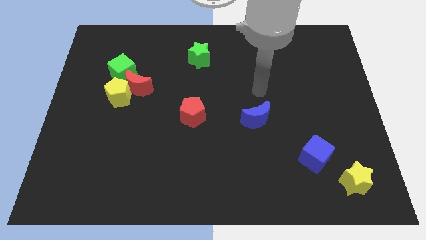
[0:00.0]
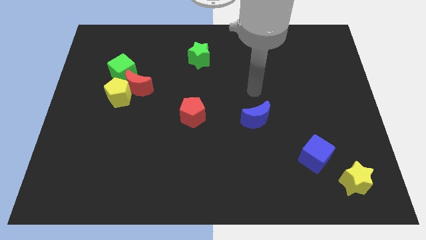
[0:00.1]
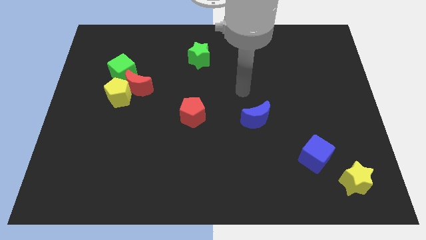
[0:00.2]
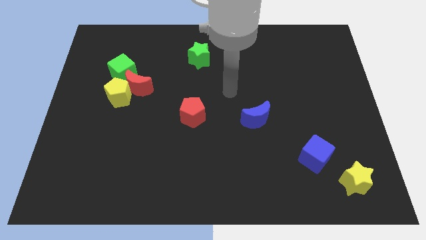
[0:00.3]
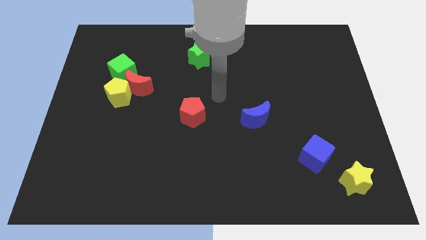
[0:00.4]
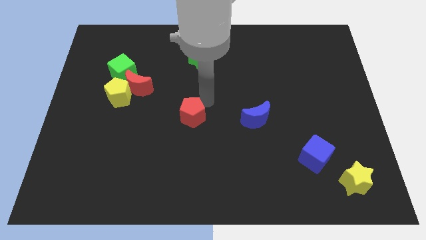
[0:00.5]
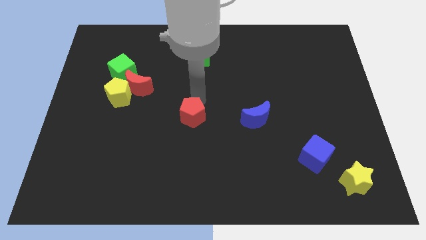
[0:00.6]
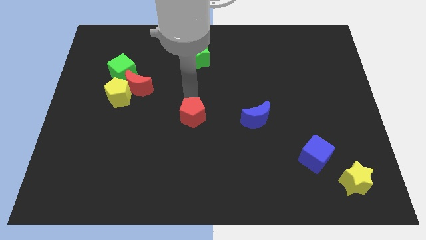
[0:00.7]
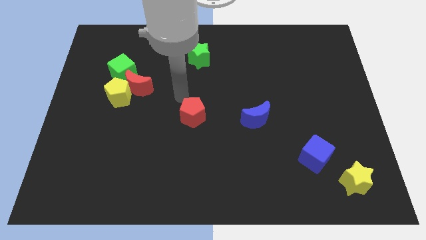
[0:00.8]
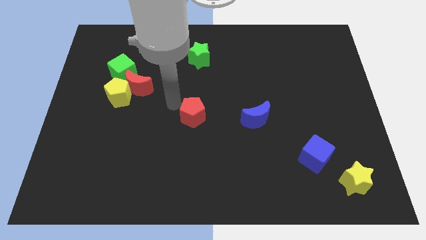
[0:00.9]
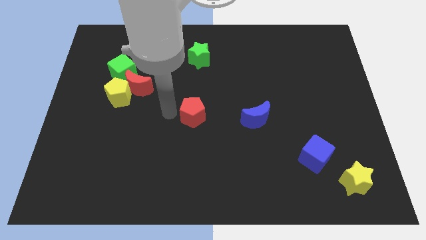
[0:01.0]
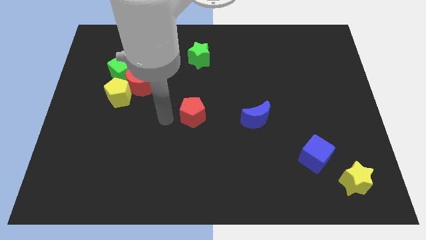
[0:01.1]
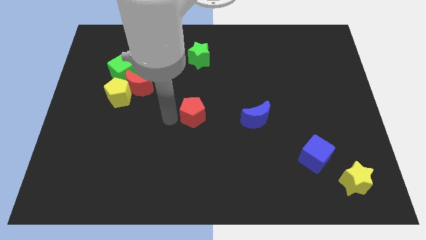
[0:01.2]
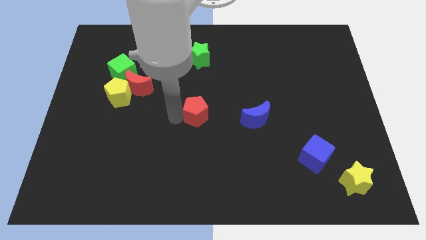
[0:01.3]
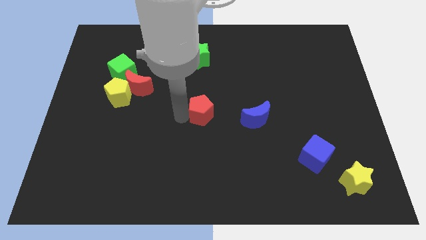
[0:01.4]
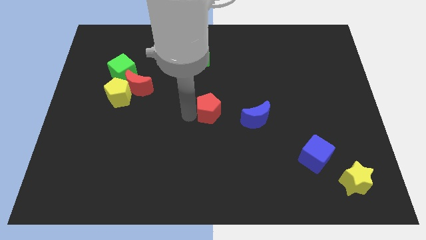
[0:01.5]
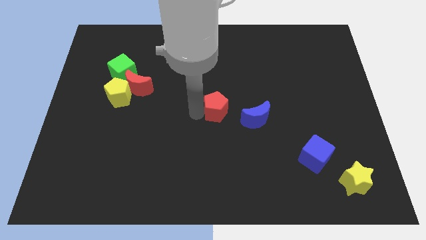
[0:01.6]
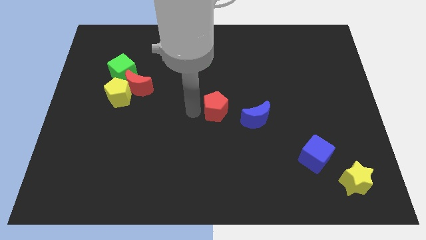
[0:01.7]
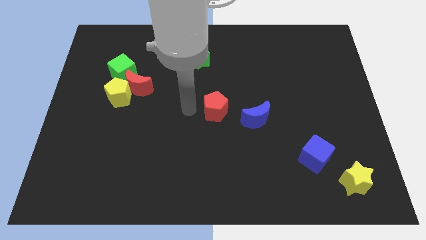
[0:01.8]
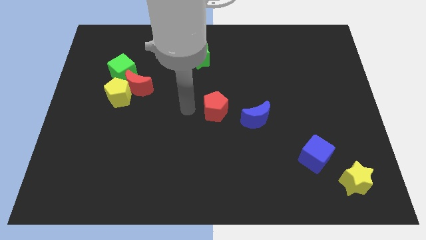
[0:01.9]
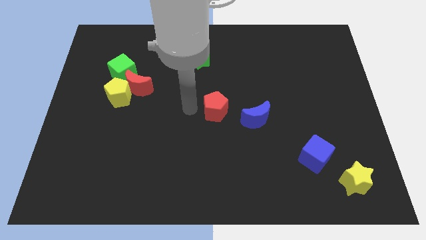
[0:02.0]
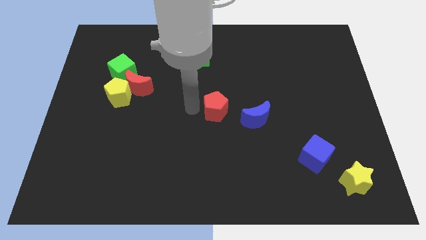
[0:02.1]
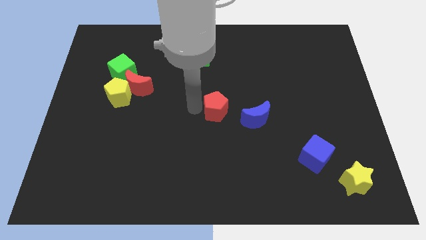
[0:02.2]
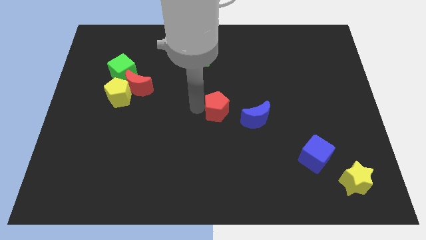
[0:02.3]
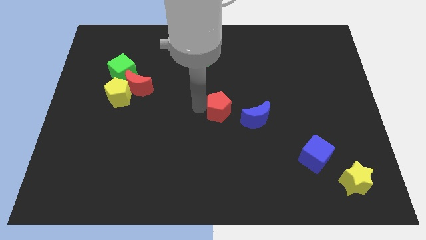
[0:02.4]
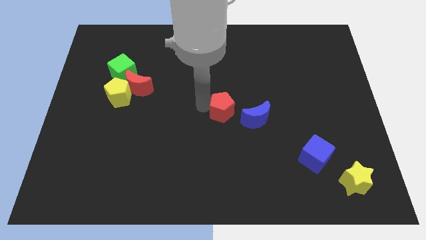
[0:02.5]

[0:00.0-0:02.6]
move the red pentagon a bit right

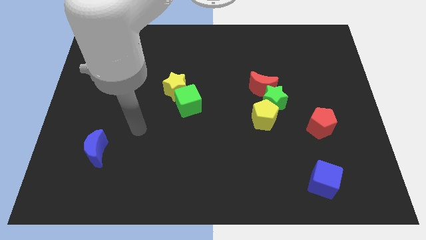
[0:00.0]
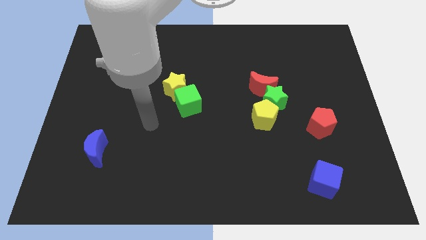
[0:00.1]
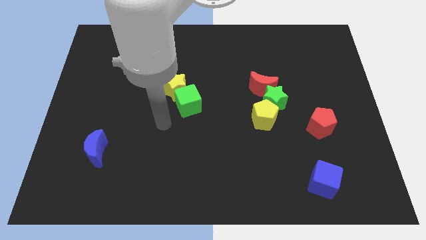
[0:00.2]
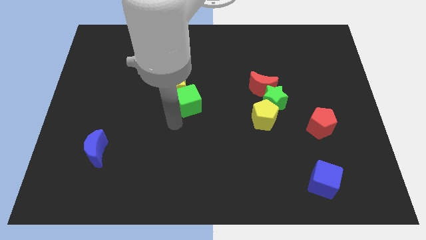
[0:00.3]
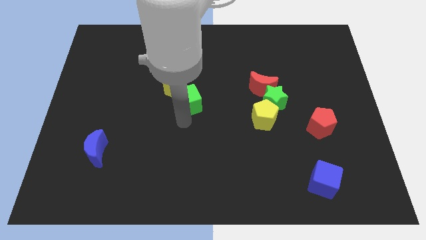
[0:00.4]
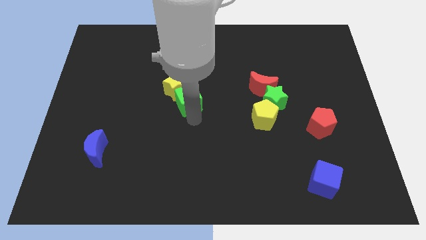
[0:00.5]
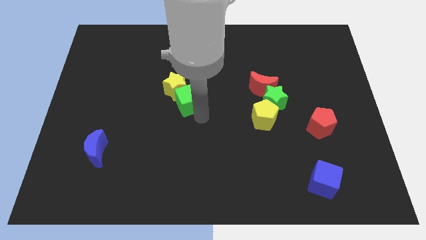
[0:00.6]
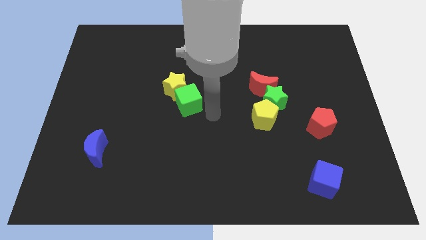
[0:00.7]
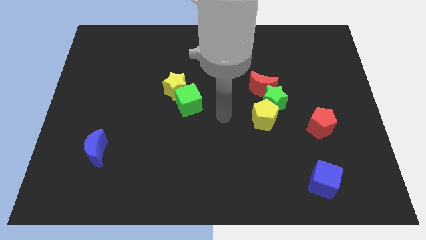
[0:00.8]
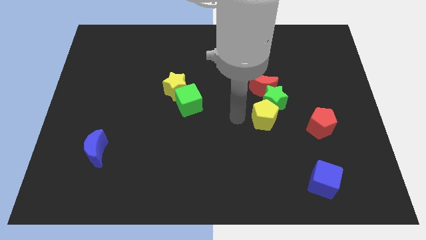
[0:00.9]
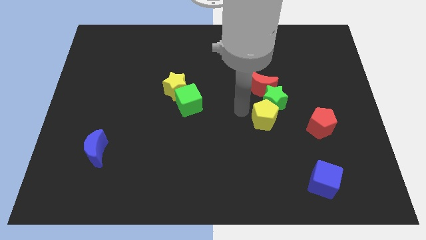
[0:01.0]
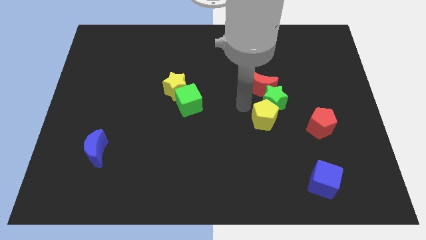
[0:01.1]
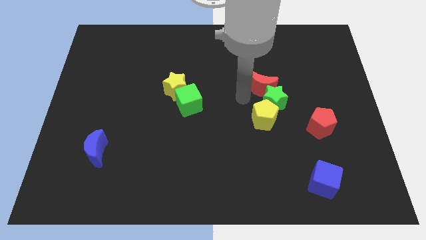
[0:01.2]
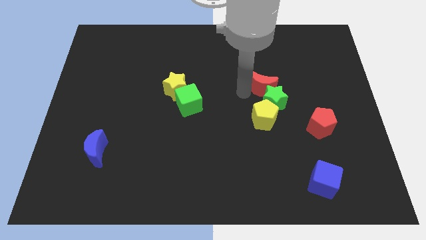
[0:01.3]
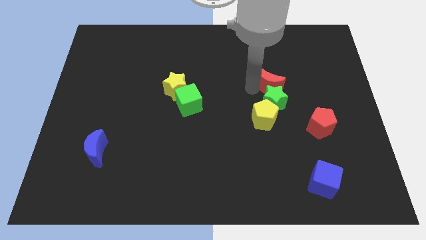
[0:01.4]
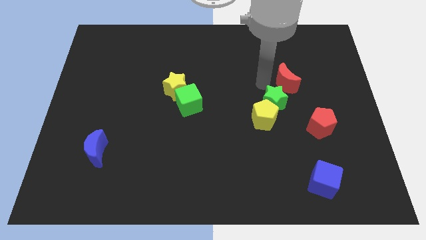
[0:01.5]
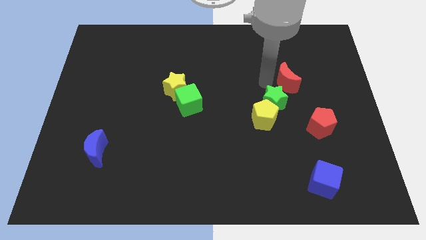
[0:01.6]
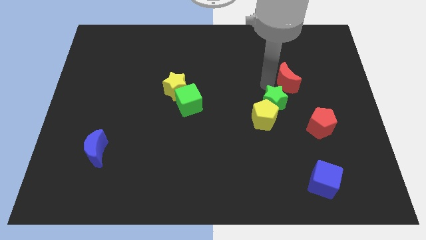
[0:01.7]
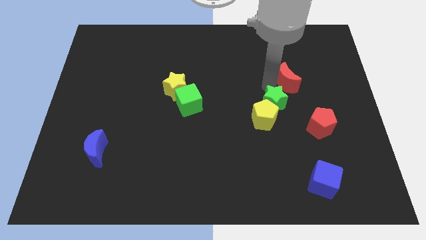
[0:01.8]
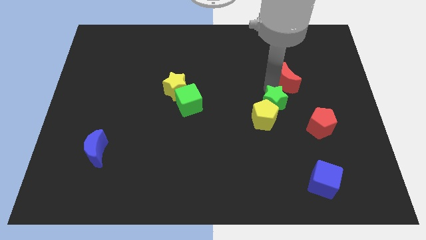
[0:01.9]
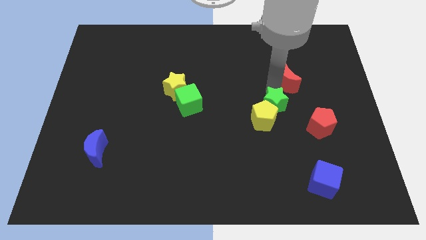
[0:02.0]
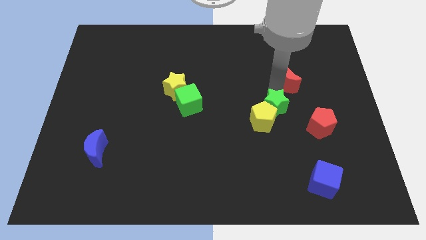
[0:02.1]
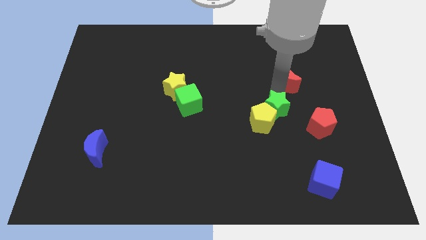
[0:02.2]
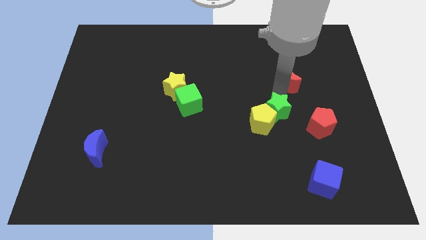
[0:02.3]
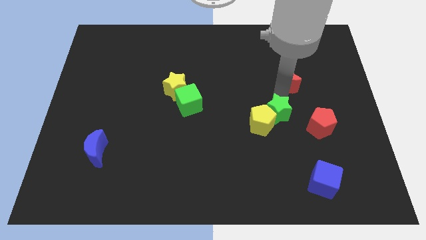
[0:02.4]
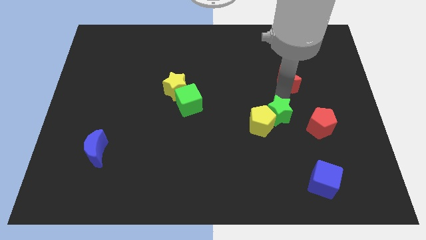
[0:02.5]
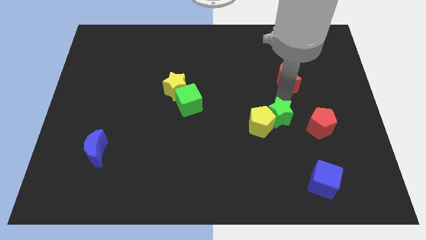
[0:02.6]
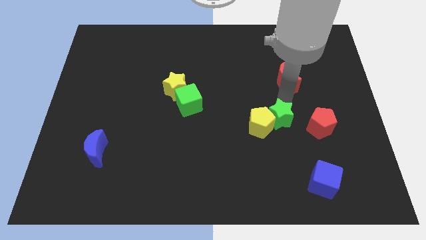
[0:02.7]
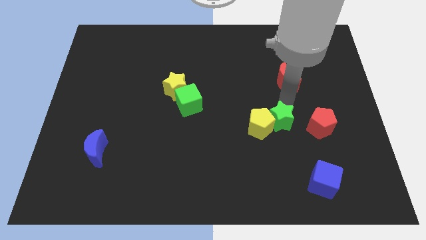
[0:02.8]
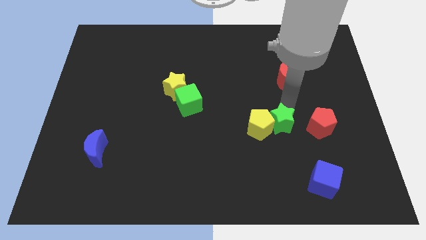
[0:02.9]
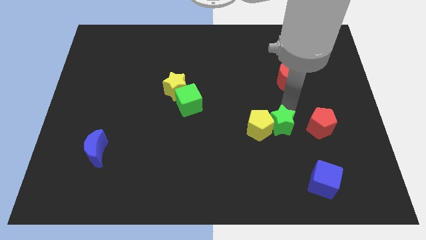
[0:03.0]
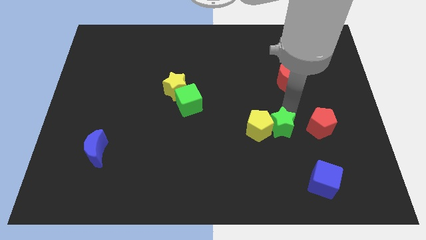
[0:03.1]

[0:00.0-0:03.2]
slightly move the green star downwards

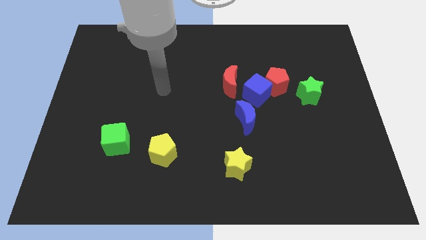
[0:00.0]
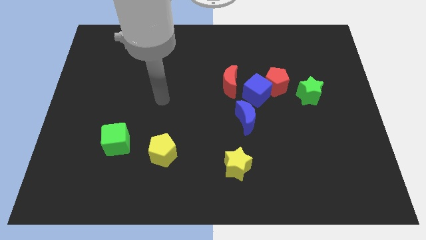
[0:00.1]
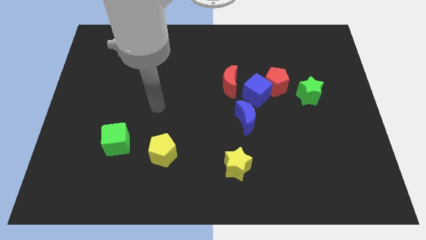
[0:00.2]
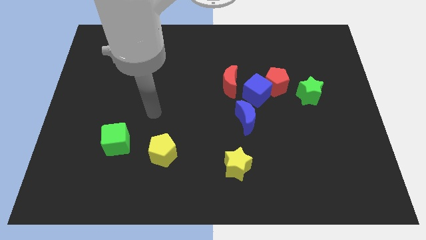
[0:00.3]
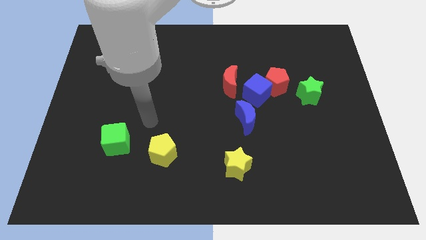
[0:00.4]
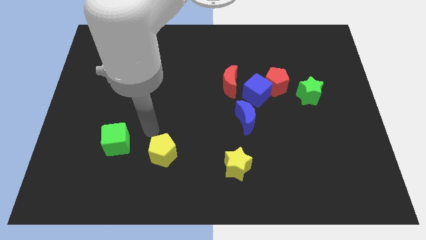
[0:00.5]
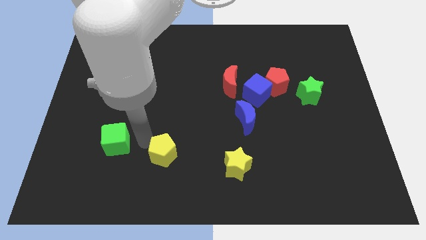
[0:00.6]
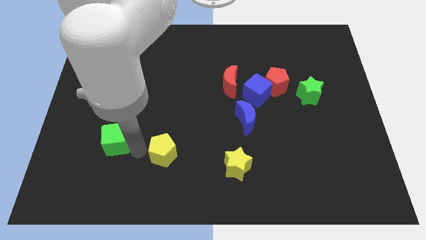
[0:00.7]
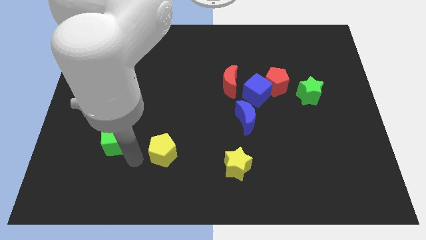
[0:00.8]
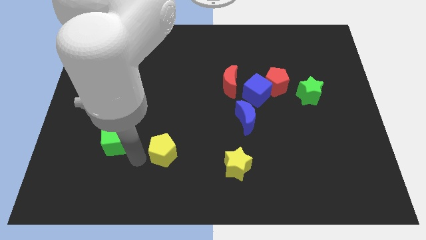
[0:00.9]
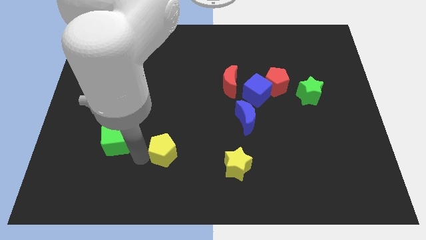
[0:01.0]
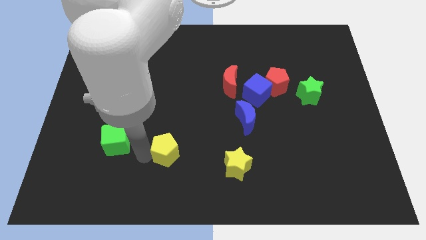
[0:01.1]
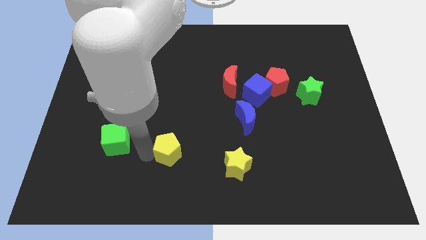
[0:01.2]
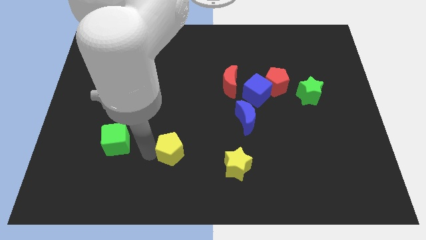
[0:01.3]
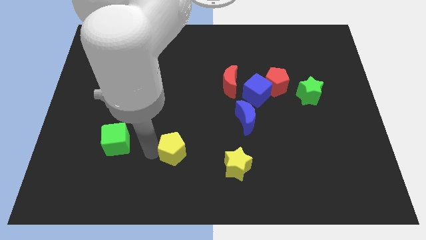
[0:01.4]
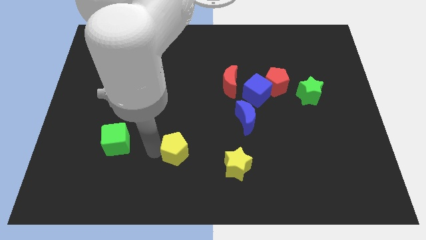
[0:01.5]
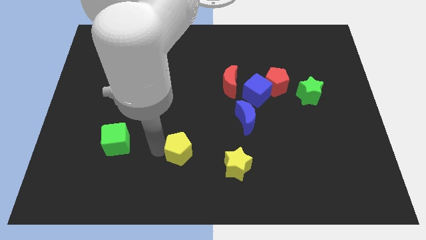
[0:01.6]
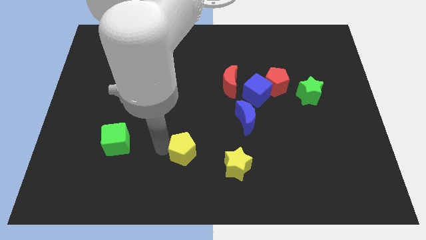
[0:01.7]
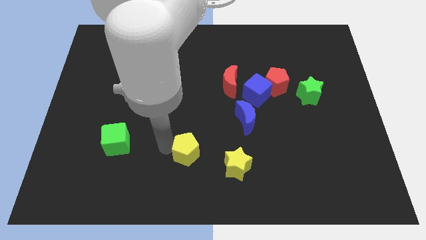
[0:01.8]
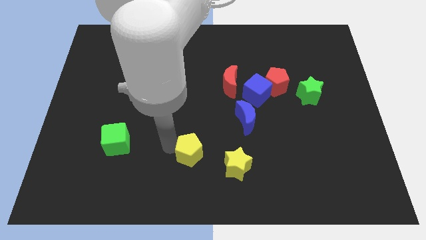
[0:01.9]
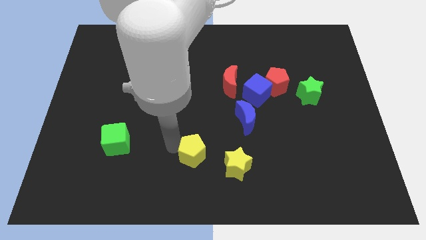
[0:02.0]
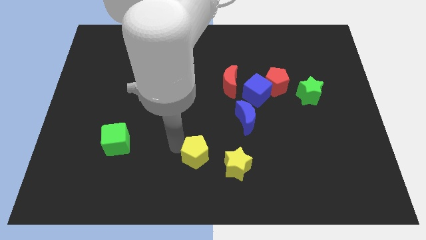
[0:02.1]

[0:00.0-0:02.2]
slightly push the yellow pentagon right
